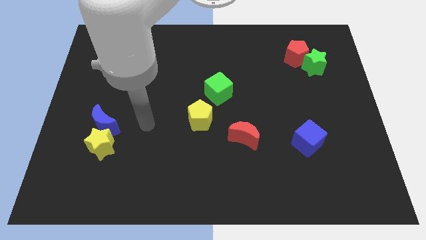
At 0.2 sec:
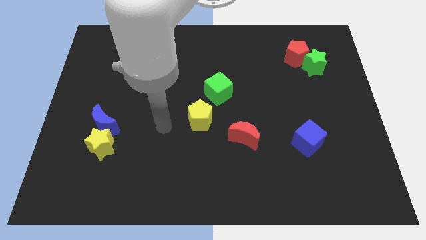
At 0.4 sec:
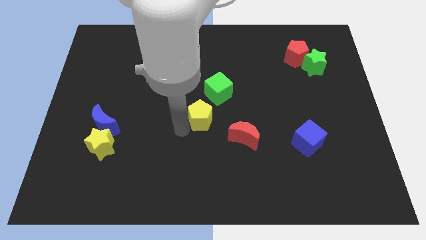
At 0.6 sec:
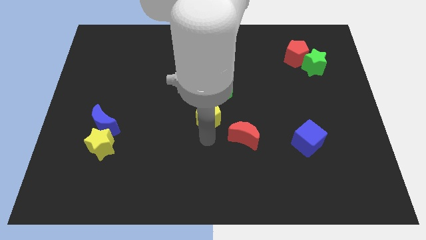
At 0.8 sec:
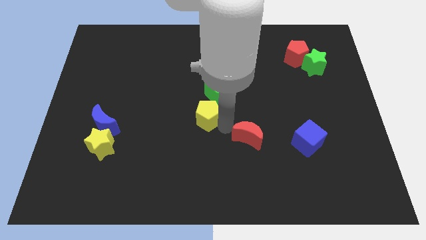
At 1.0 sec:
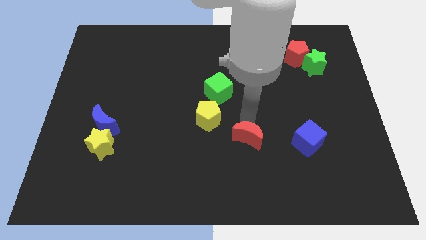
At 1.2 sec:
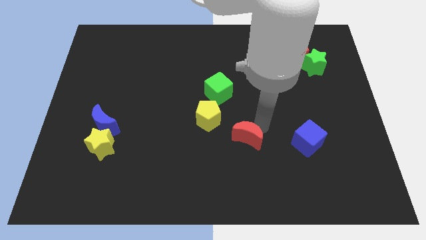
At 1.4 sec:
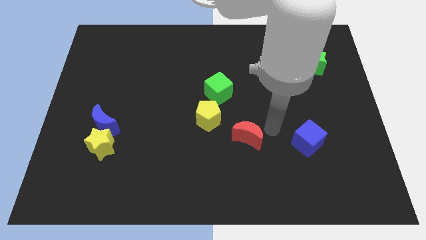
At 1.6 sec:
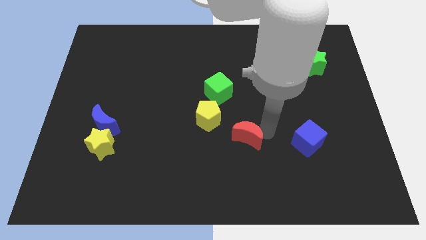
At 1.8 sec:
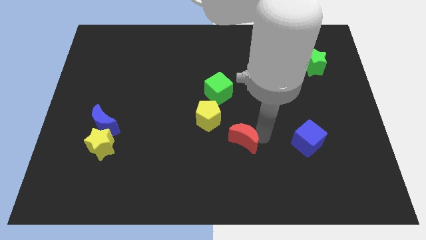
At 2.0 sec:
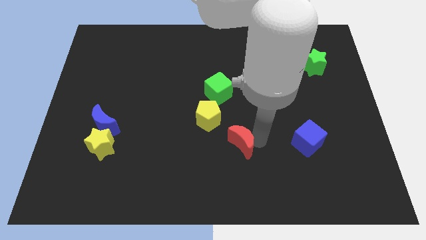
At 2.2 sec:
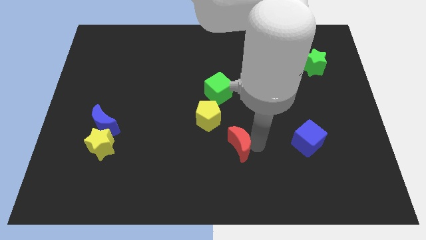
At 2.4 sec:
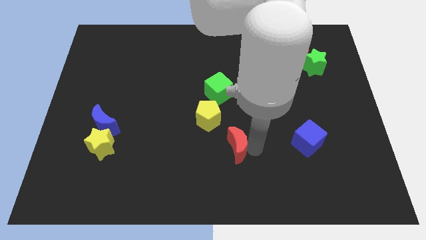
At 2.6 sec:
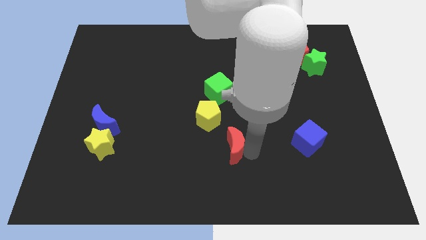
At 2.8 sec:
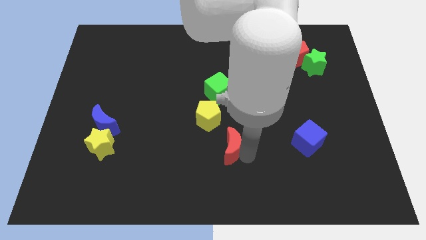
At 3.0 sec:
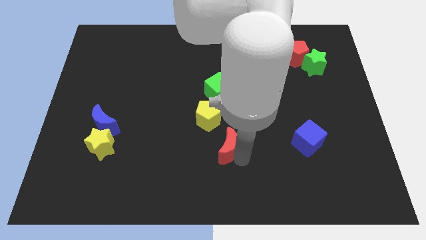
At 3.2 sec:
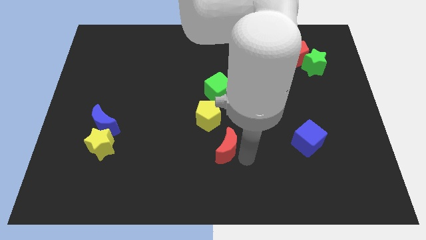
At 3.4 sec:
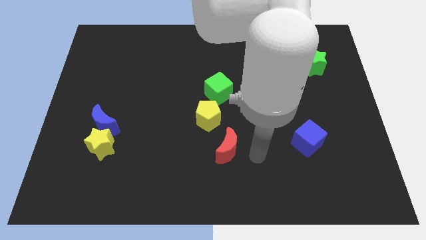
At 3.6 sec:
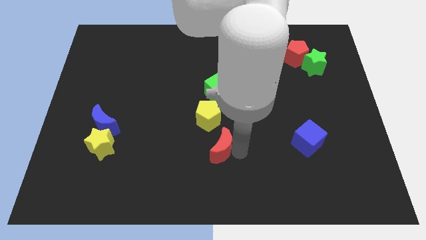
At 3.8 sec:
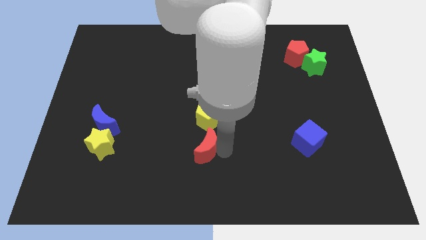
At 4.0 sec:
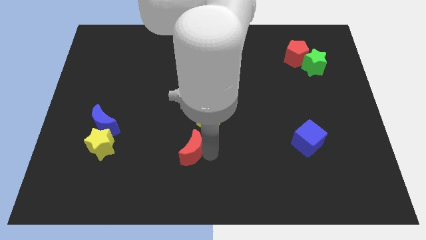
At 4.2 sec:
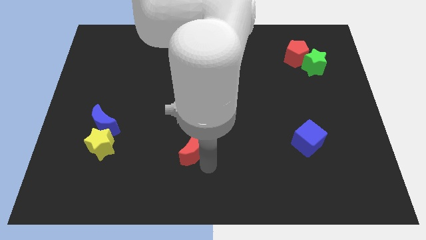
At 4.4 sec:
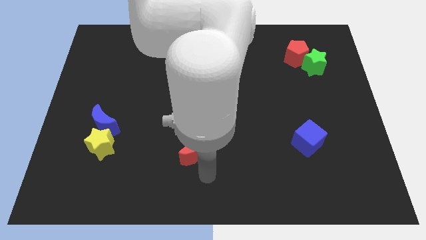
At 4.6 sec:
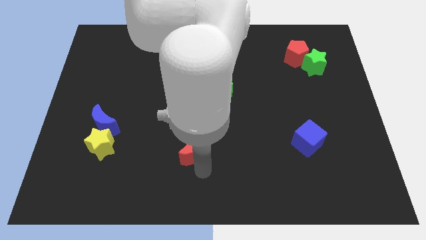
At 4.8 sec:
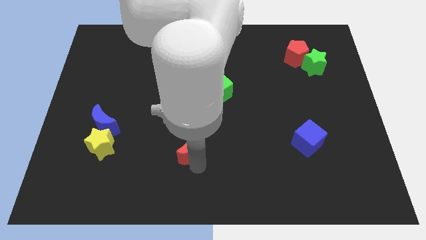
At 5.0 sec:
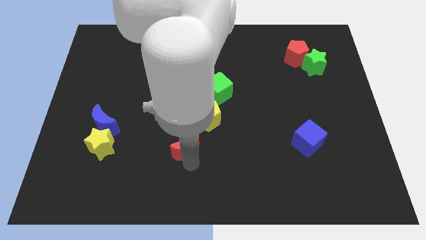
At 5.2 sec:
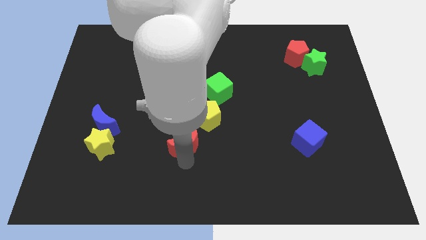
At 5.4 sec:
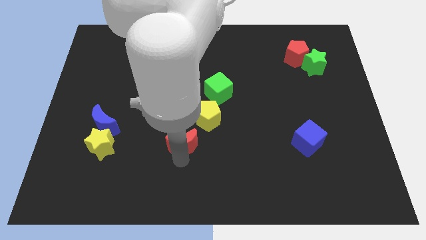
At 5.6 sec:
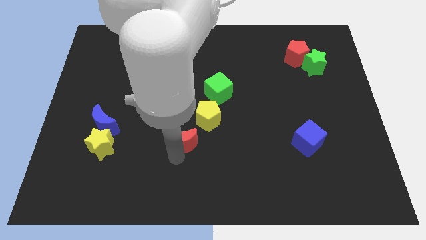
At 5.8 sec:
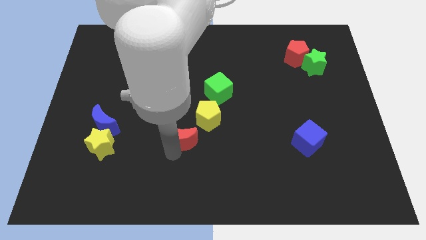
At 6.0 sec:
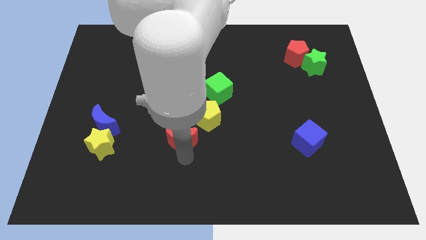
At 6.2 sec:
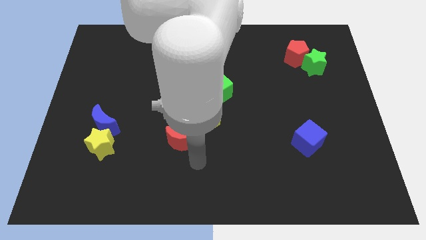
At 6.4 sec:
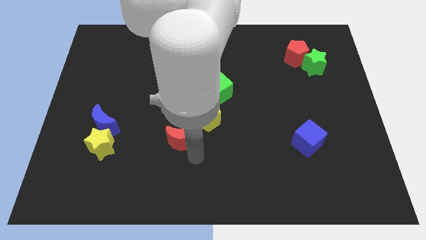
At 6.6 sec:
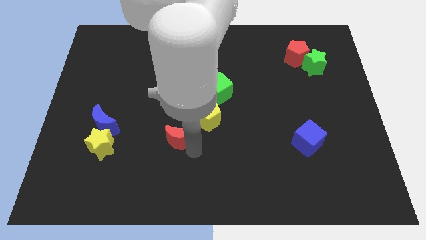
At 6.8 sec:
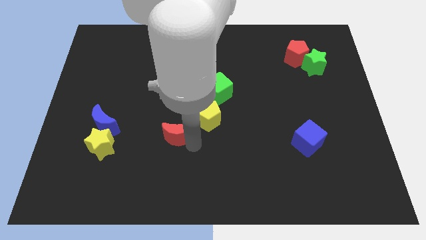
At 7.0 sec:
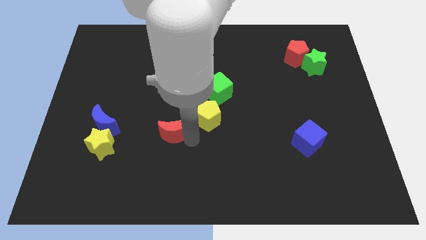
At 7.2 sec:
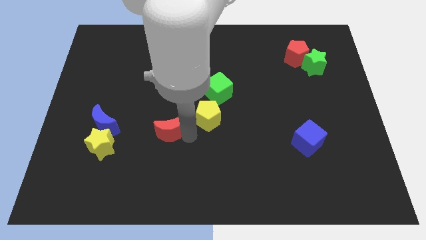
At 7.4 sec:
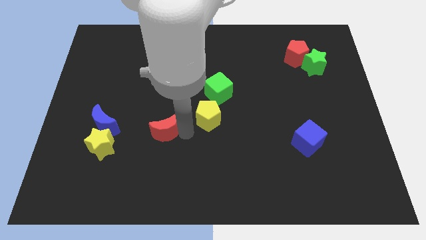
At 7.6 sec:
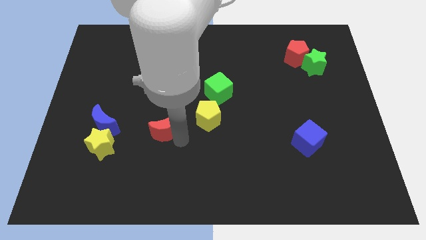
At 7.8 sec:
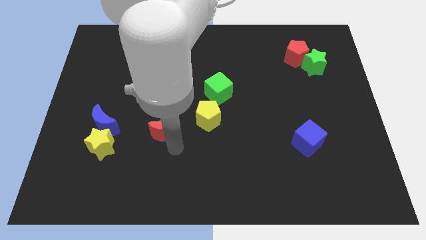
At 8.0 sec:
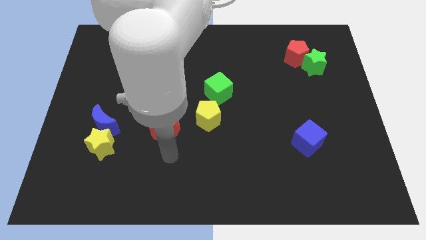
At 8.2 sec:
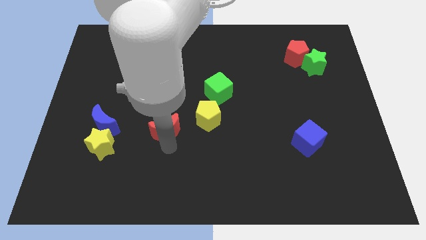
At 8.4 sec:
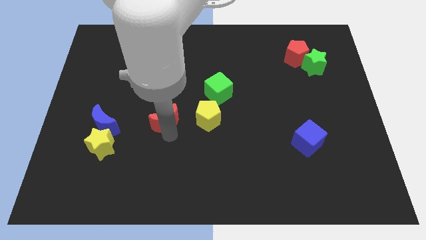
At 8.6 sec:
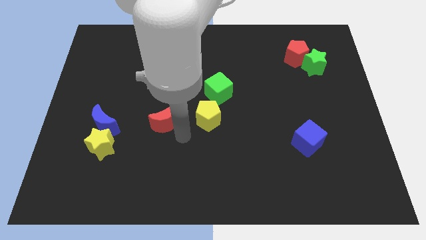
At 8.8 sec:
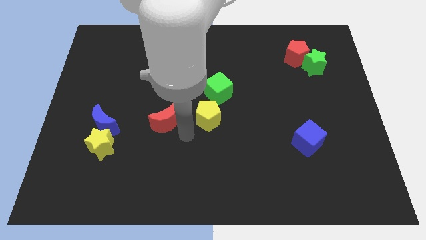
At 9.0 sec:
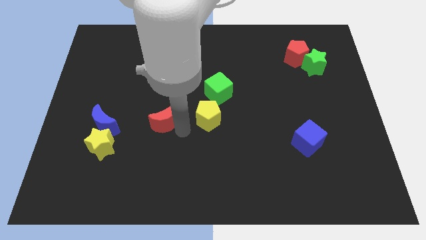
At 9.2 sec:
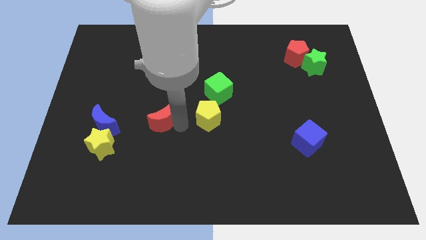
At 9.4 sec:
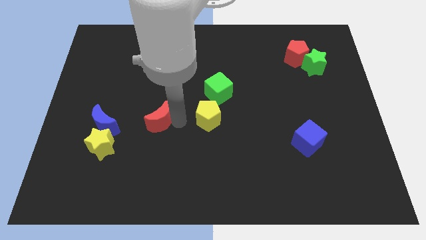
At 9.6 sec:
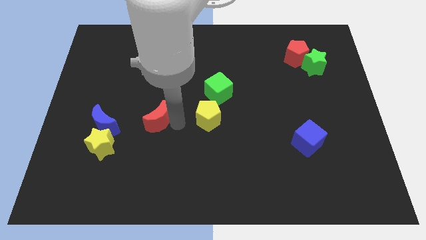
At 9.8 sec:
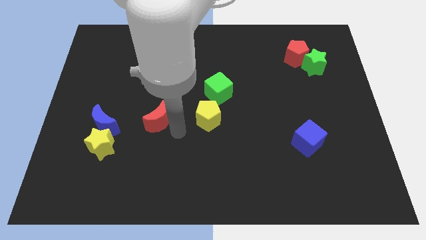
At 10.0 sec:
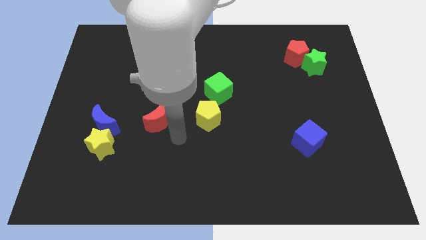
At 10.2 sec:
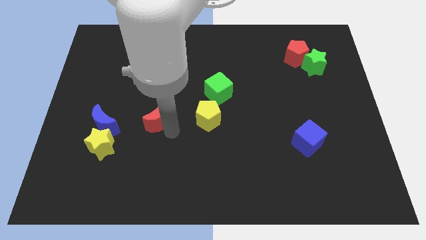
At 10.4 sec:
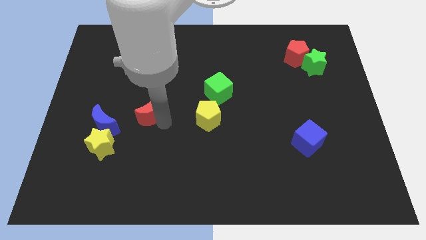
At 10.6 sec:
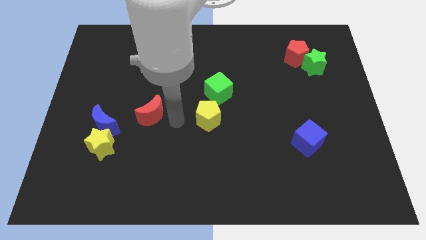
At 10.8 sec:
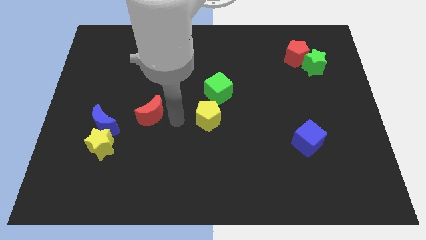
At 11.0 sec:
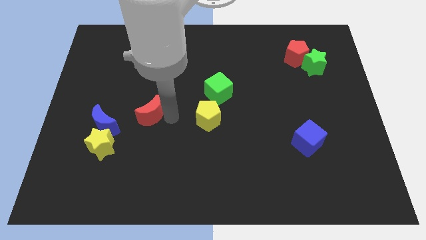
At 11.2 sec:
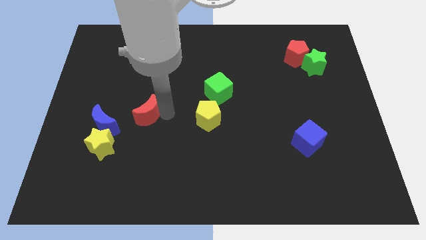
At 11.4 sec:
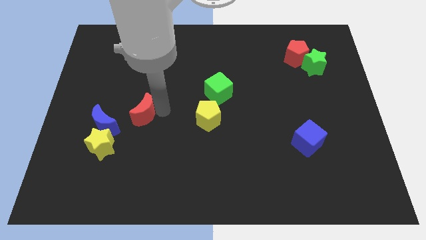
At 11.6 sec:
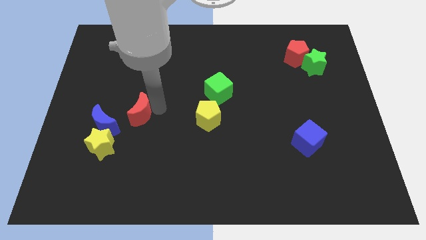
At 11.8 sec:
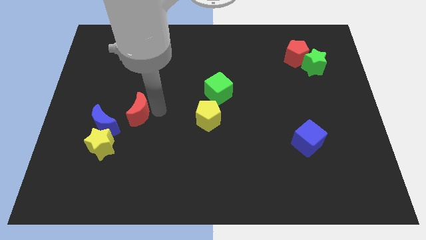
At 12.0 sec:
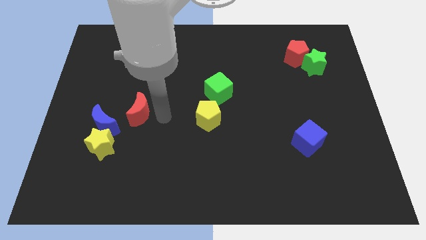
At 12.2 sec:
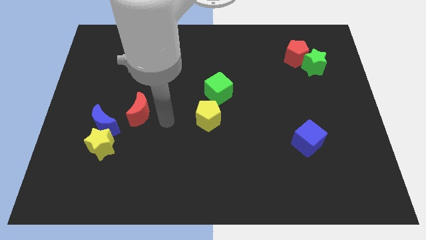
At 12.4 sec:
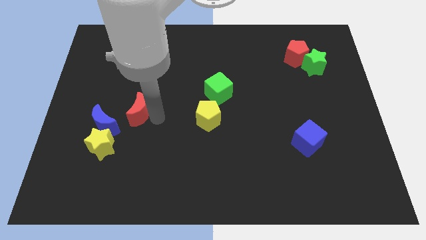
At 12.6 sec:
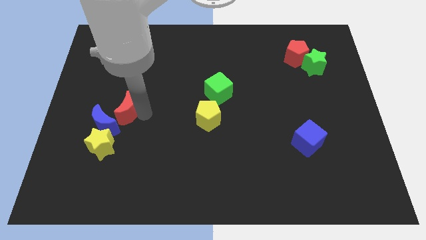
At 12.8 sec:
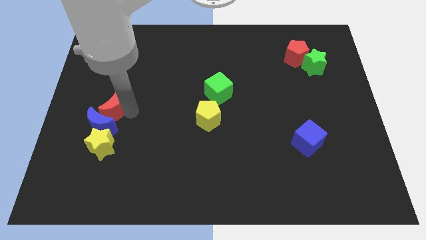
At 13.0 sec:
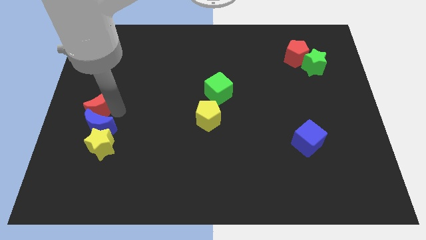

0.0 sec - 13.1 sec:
push the red moon to the left side of the board
